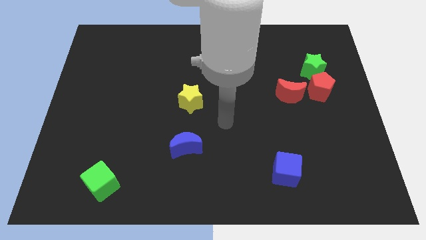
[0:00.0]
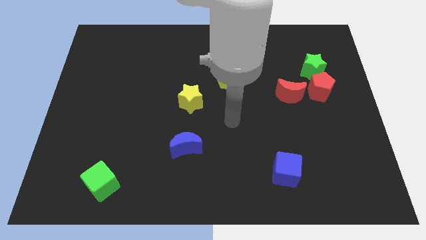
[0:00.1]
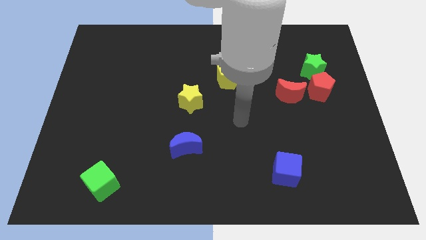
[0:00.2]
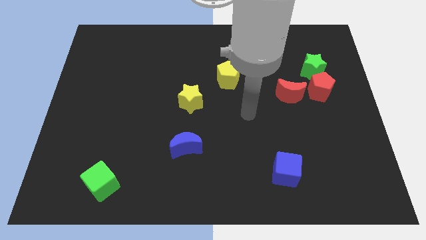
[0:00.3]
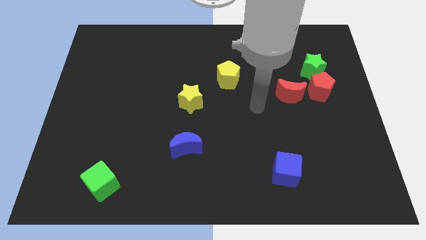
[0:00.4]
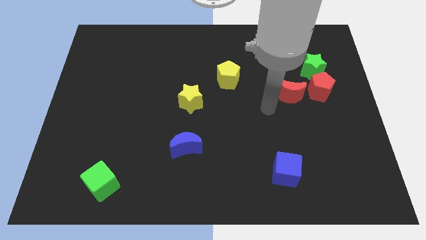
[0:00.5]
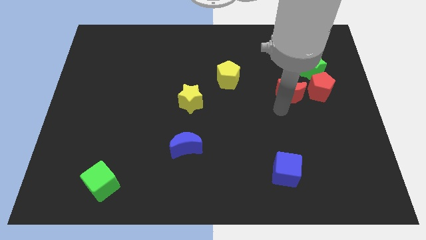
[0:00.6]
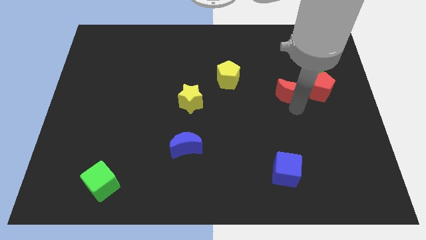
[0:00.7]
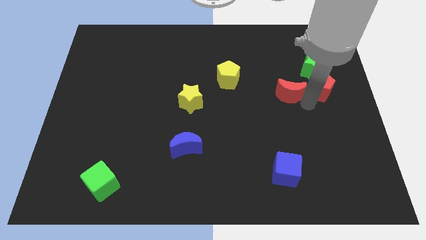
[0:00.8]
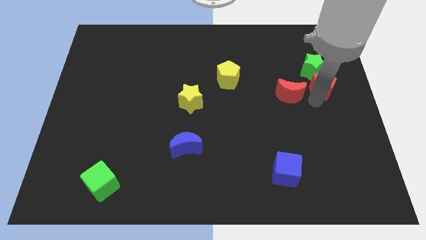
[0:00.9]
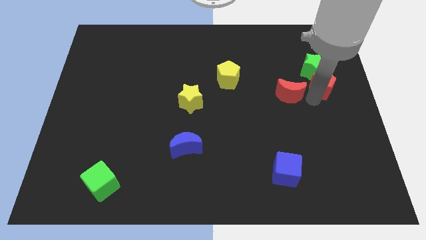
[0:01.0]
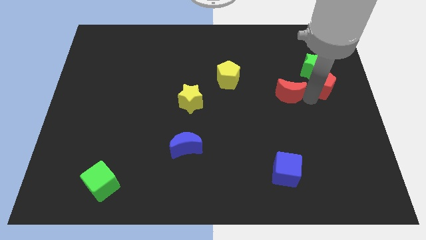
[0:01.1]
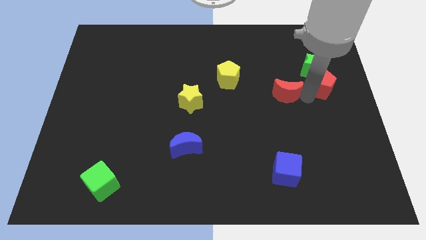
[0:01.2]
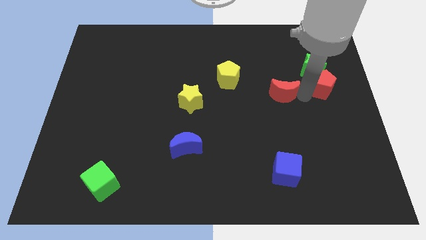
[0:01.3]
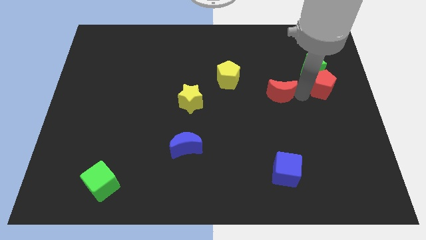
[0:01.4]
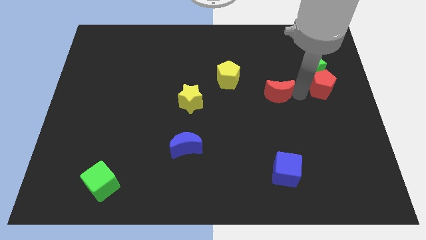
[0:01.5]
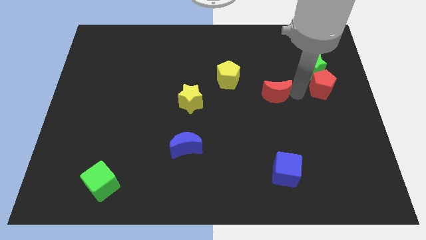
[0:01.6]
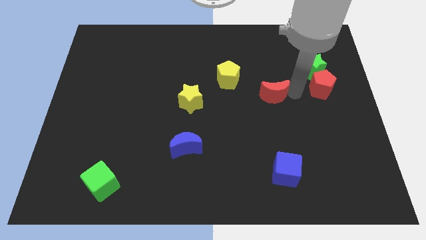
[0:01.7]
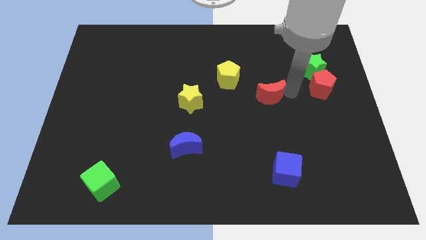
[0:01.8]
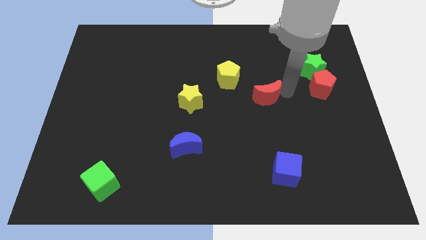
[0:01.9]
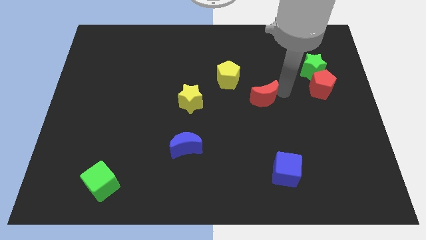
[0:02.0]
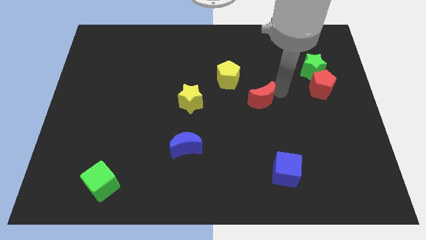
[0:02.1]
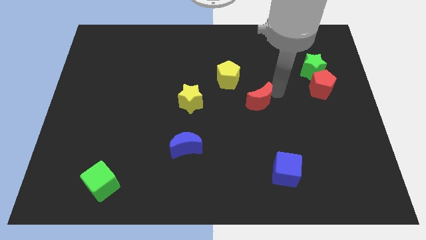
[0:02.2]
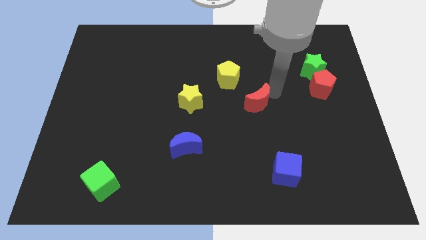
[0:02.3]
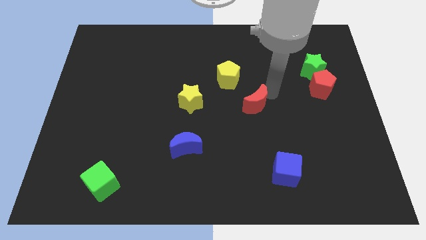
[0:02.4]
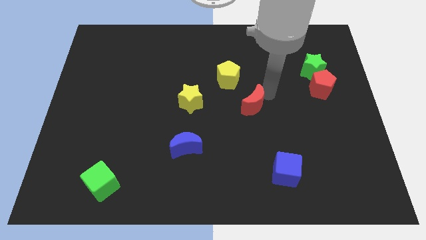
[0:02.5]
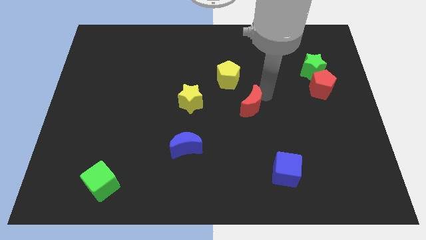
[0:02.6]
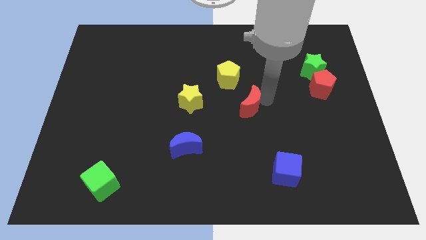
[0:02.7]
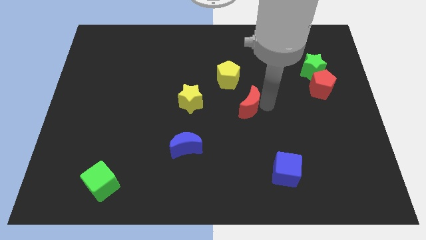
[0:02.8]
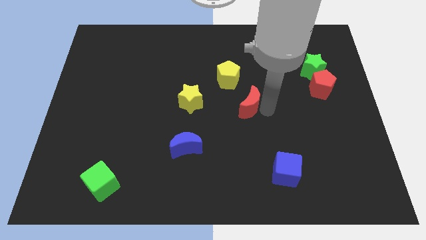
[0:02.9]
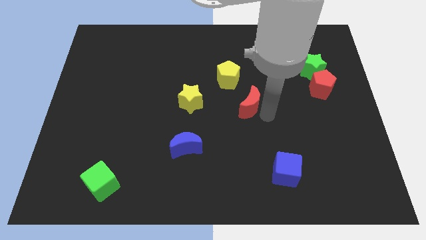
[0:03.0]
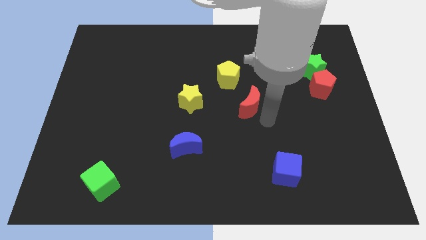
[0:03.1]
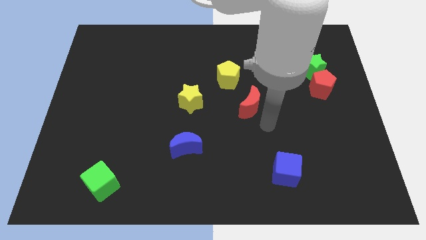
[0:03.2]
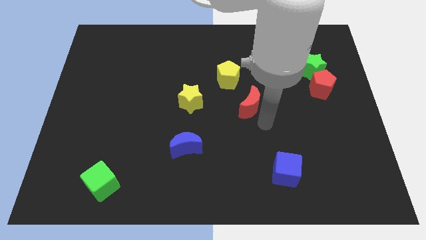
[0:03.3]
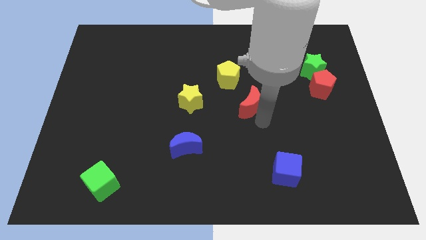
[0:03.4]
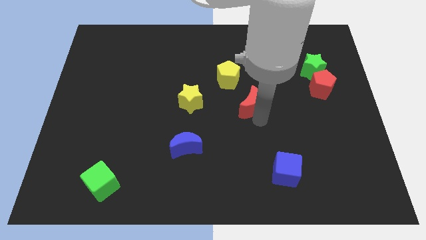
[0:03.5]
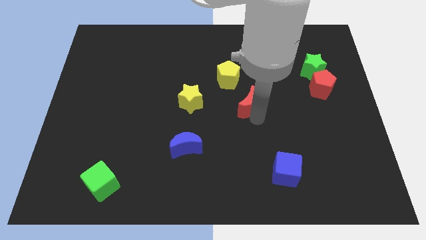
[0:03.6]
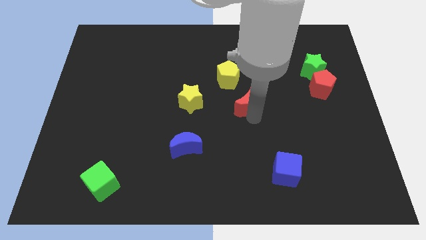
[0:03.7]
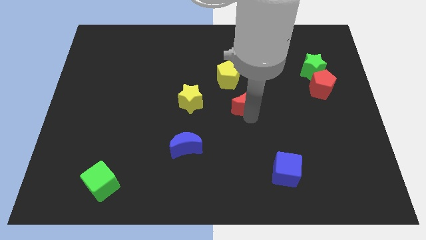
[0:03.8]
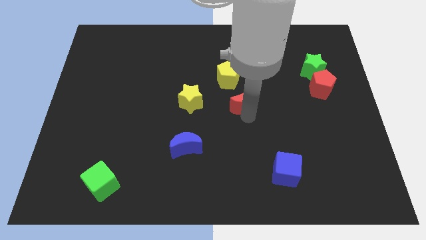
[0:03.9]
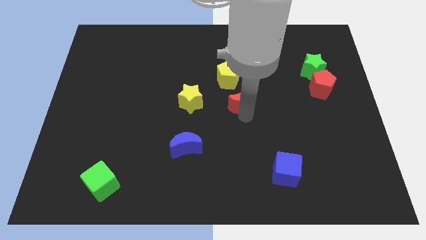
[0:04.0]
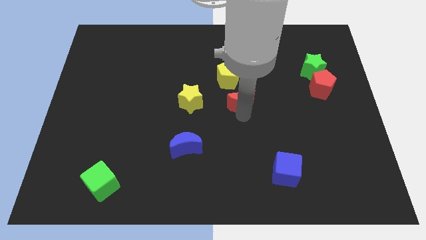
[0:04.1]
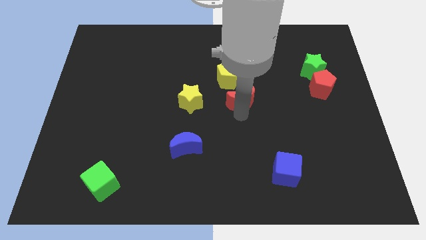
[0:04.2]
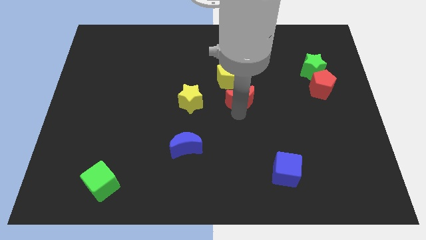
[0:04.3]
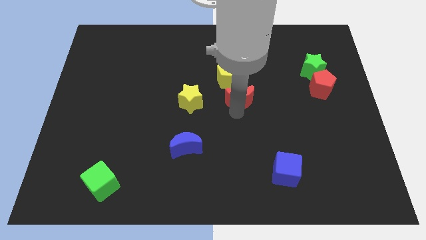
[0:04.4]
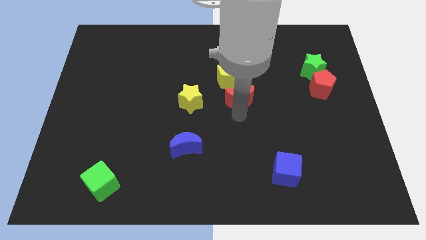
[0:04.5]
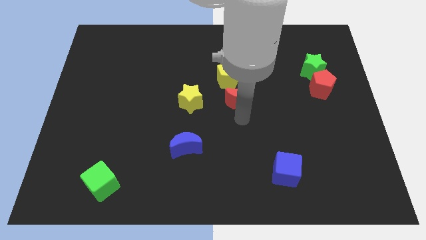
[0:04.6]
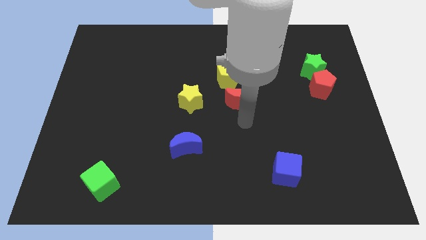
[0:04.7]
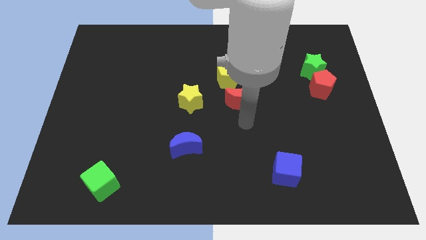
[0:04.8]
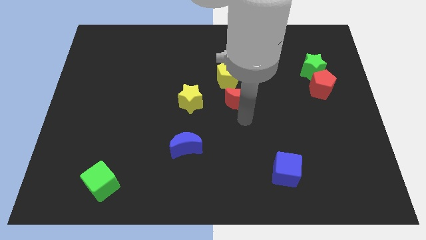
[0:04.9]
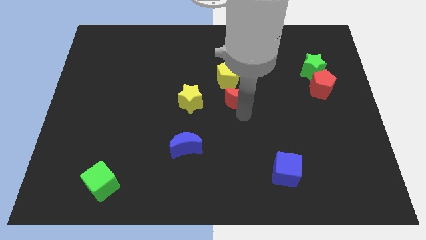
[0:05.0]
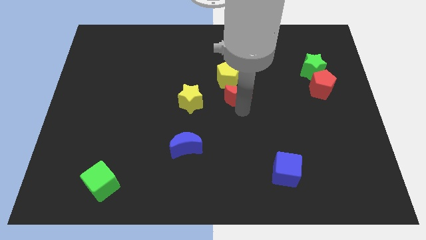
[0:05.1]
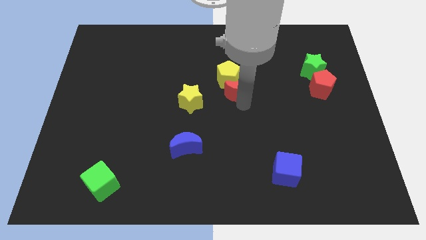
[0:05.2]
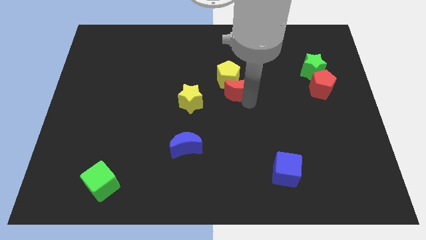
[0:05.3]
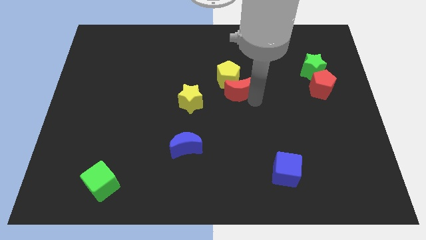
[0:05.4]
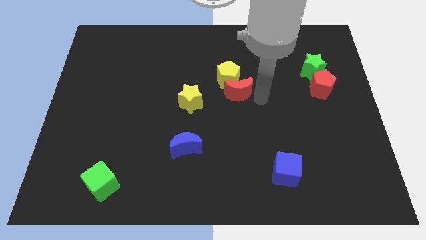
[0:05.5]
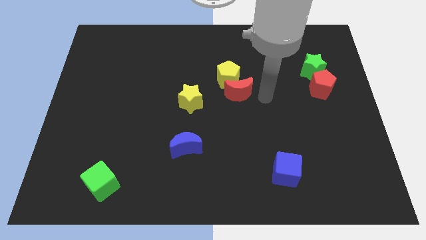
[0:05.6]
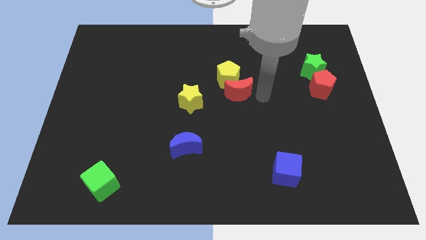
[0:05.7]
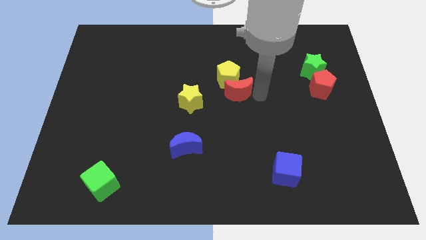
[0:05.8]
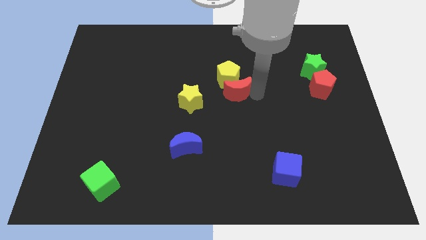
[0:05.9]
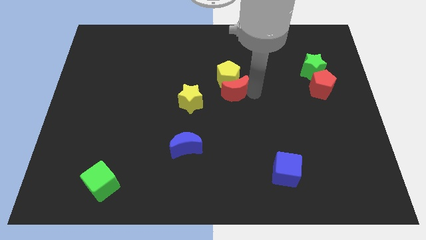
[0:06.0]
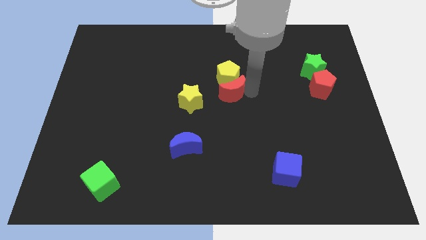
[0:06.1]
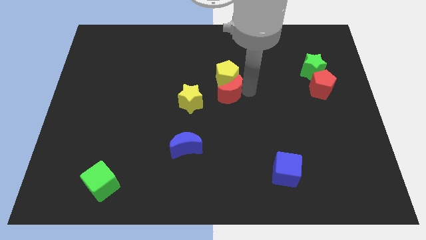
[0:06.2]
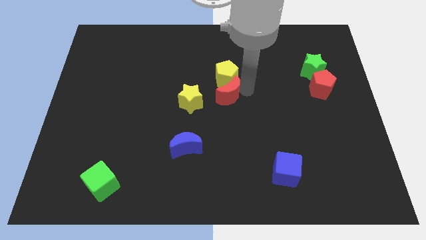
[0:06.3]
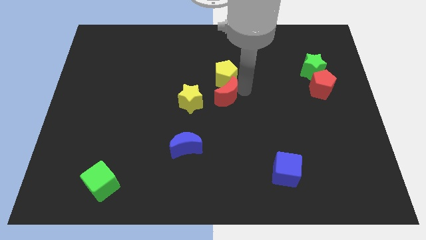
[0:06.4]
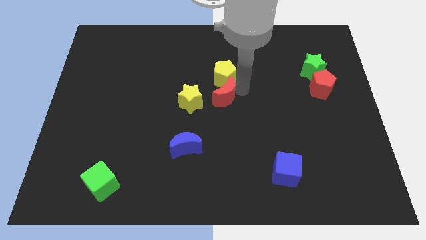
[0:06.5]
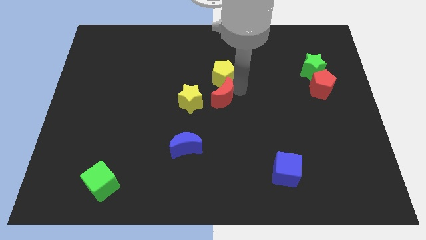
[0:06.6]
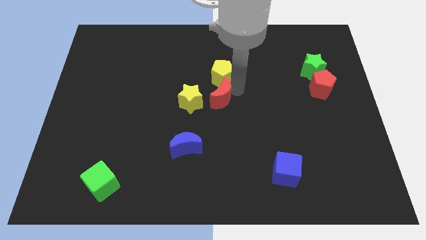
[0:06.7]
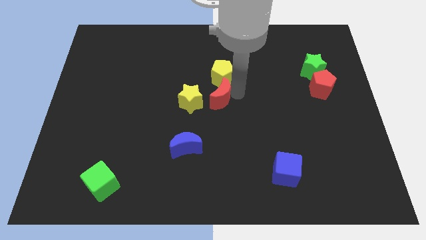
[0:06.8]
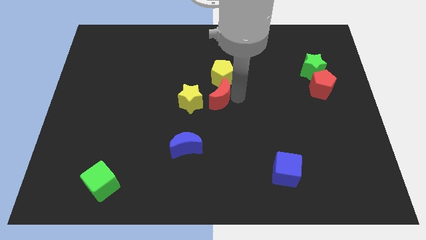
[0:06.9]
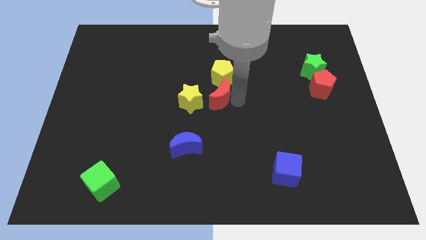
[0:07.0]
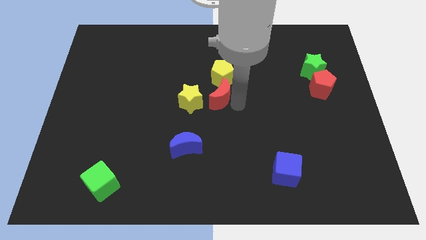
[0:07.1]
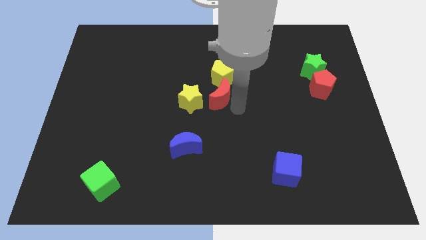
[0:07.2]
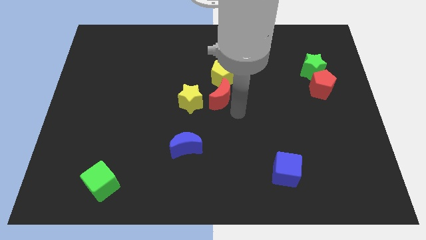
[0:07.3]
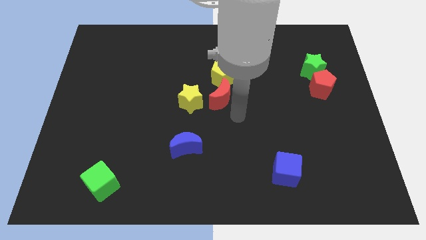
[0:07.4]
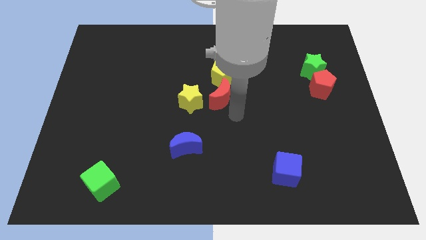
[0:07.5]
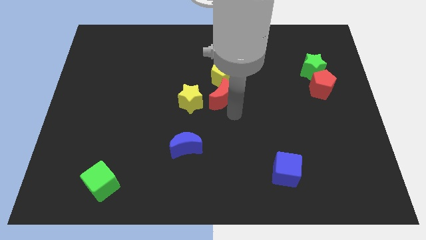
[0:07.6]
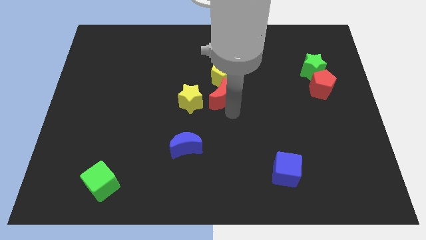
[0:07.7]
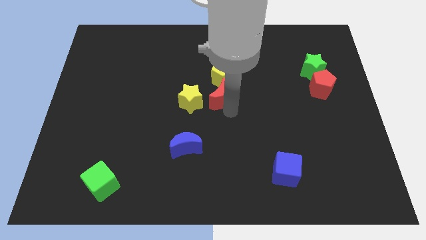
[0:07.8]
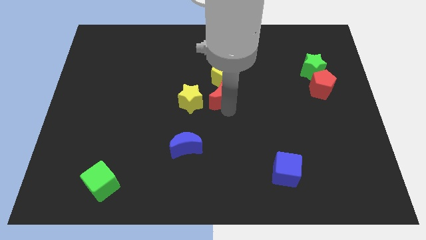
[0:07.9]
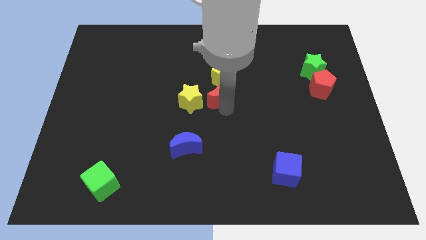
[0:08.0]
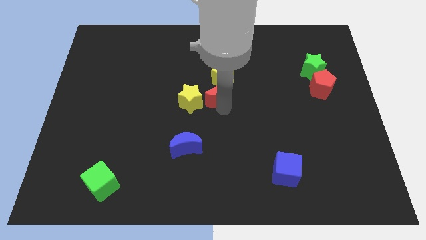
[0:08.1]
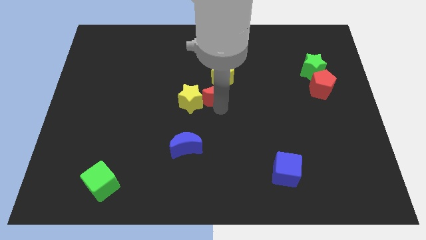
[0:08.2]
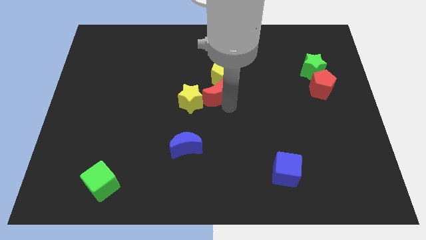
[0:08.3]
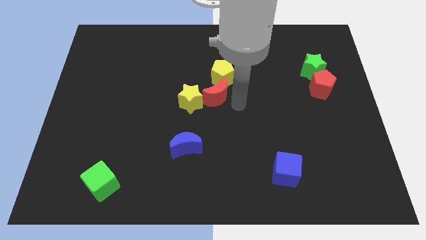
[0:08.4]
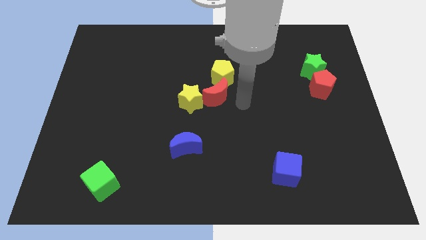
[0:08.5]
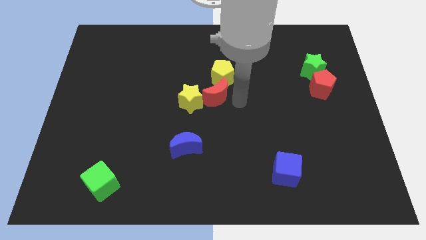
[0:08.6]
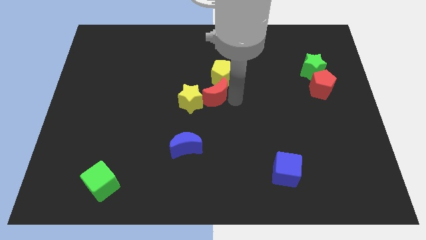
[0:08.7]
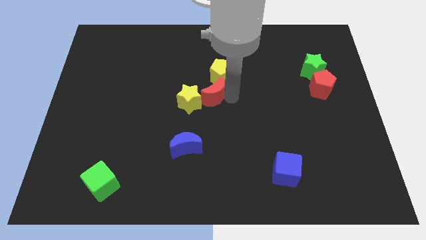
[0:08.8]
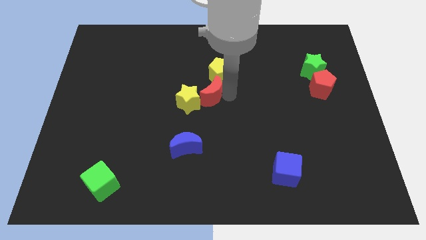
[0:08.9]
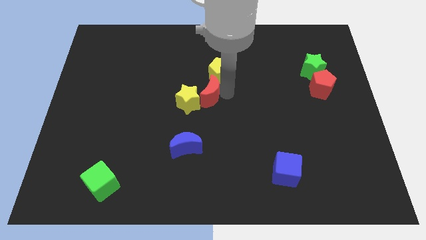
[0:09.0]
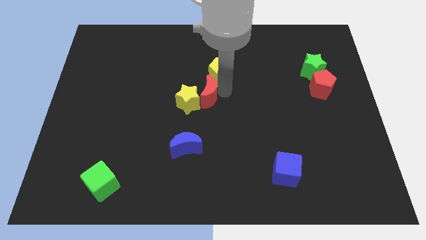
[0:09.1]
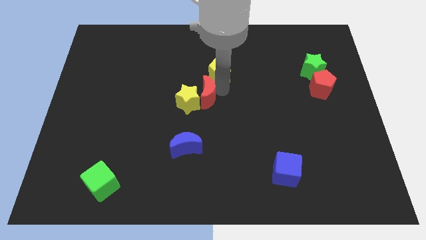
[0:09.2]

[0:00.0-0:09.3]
slide the red moon left
